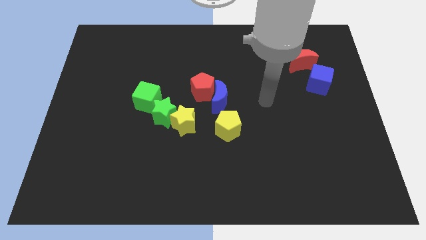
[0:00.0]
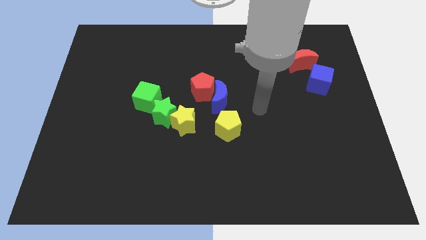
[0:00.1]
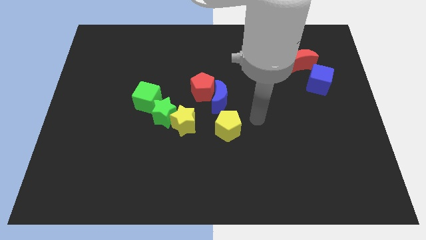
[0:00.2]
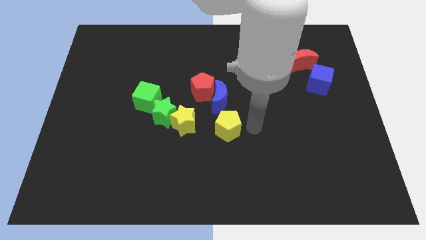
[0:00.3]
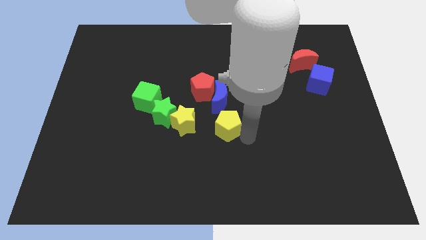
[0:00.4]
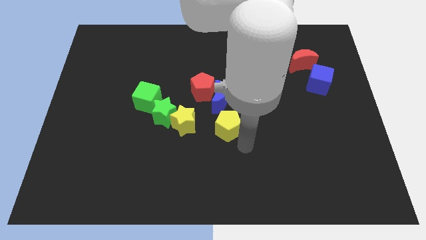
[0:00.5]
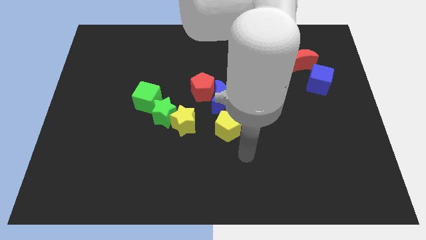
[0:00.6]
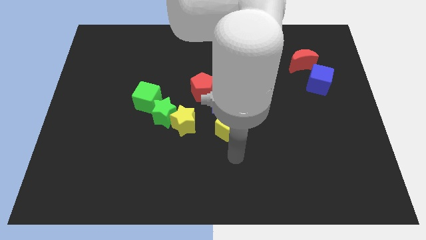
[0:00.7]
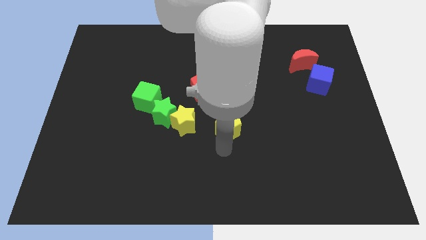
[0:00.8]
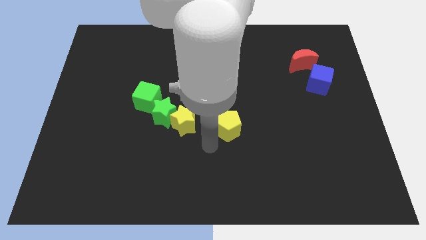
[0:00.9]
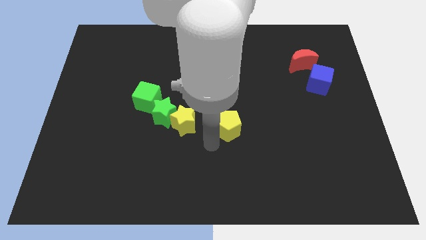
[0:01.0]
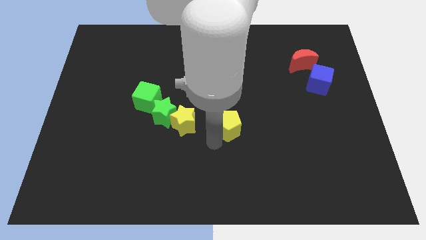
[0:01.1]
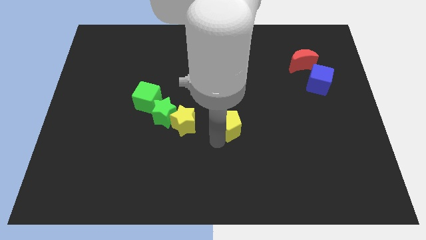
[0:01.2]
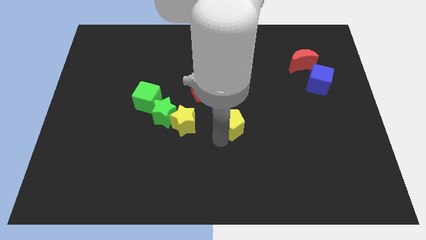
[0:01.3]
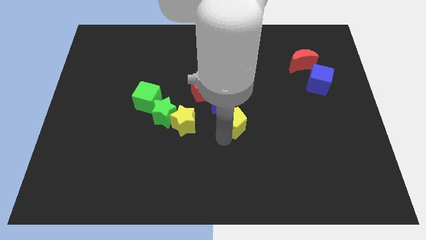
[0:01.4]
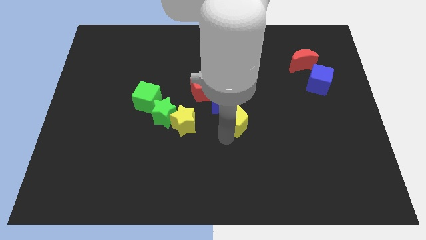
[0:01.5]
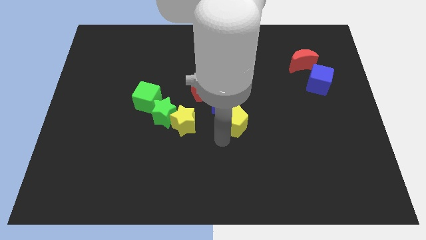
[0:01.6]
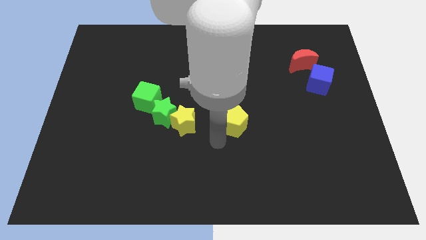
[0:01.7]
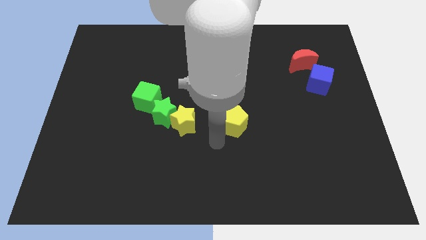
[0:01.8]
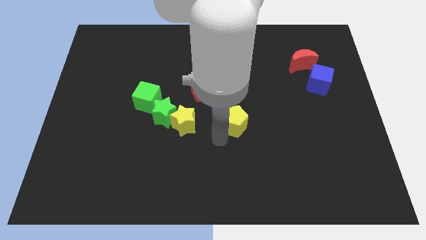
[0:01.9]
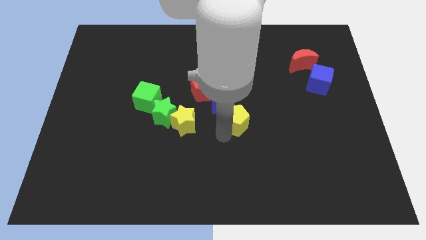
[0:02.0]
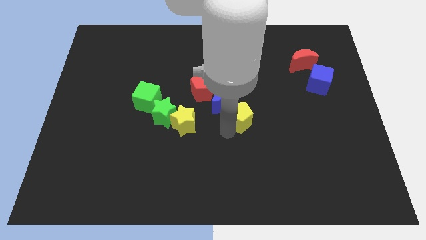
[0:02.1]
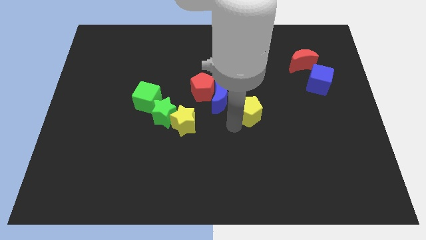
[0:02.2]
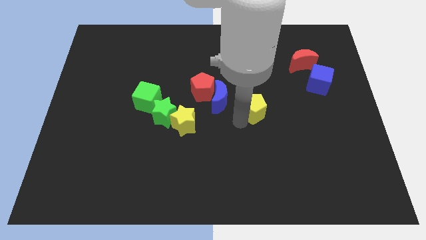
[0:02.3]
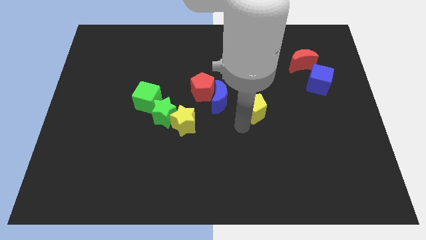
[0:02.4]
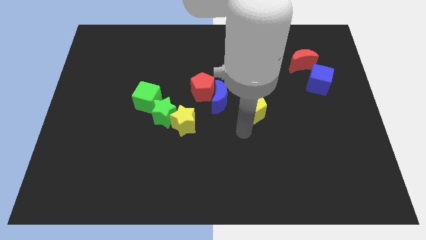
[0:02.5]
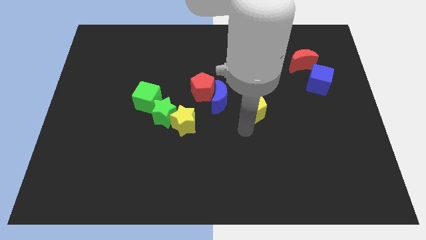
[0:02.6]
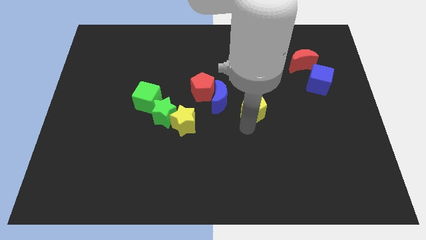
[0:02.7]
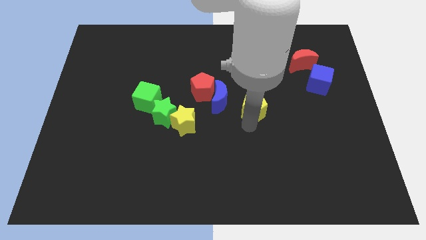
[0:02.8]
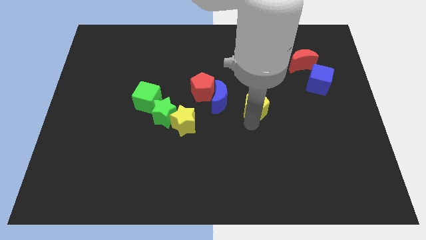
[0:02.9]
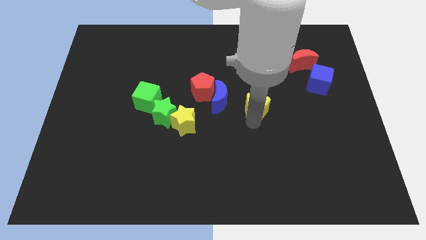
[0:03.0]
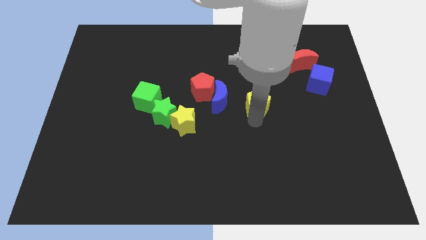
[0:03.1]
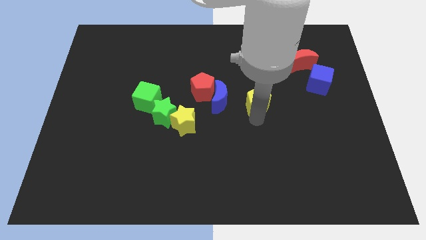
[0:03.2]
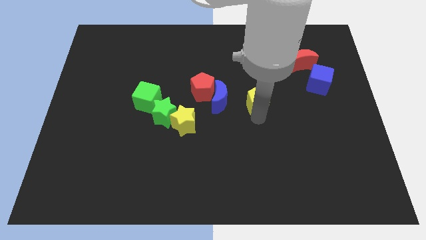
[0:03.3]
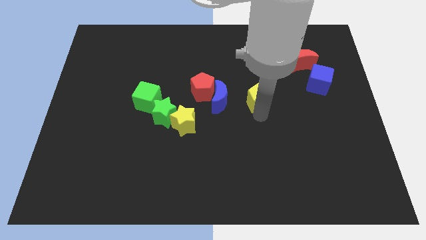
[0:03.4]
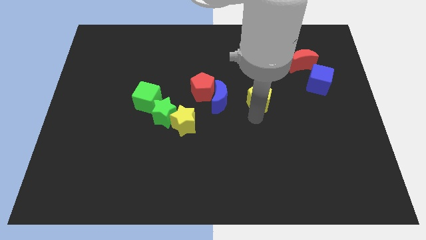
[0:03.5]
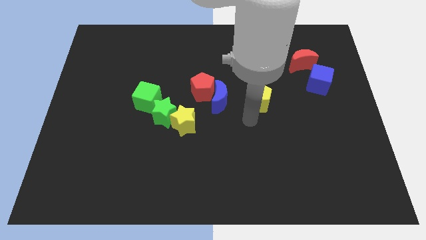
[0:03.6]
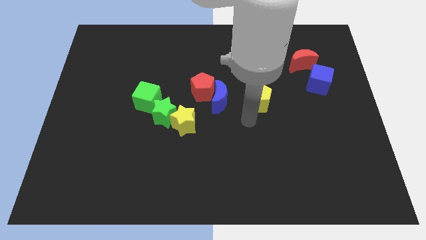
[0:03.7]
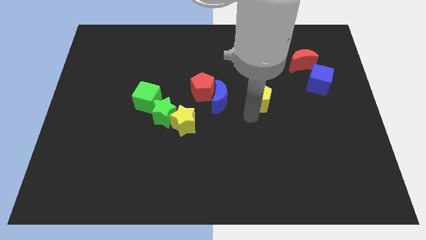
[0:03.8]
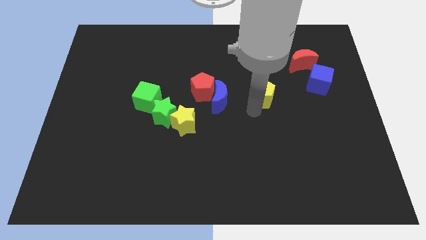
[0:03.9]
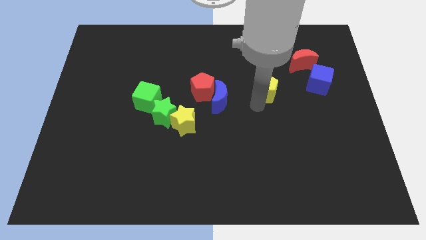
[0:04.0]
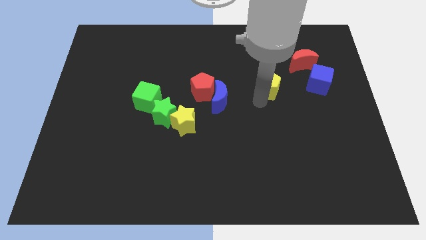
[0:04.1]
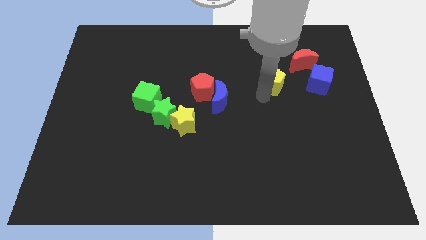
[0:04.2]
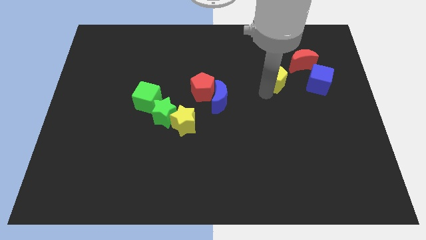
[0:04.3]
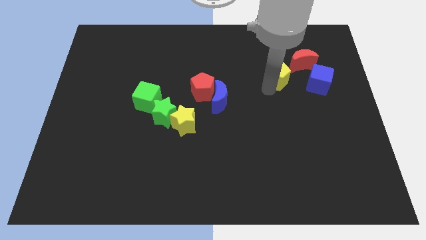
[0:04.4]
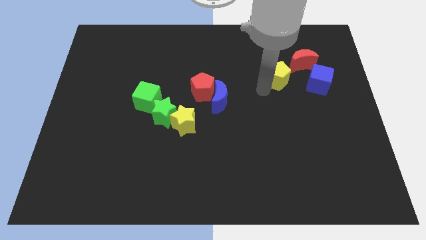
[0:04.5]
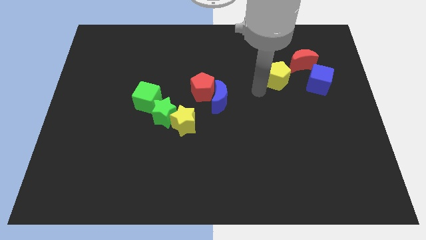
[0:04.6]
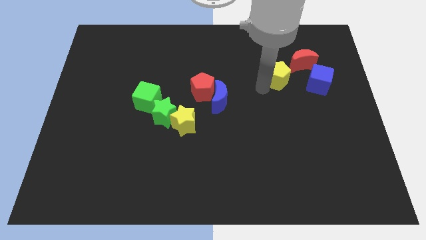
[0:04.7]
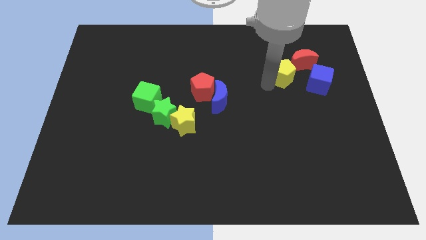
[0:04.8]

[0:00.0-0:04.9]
push the yellow pentagon to the top left of the blue cube

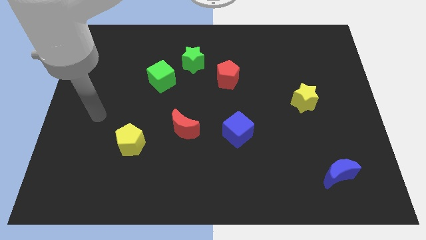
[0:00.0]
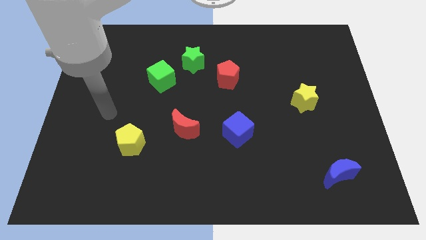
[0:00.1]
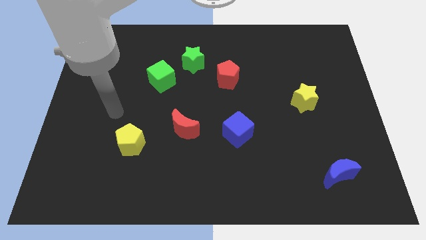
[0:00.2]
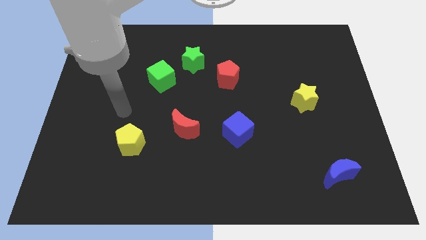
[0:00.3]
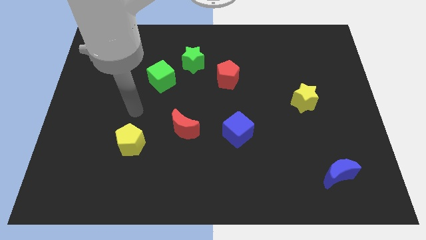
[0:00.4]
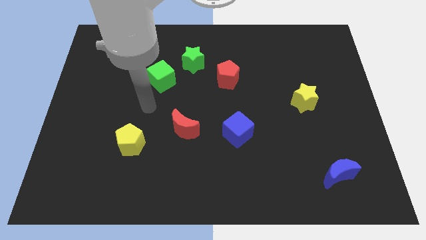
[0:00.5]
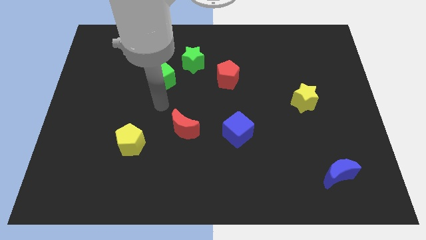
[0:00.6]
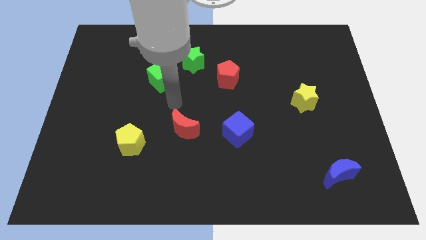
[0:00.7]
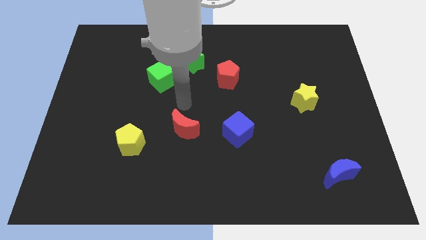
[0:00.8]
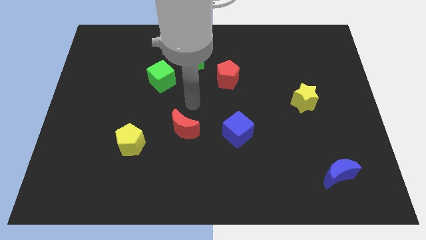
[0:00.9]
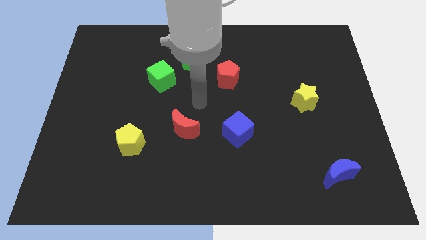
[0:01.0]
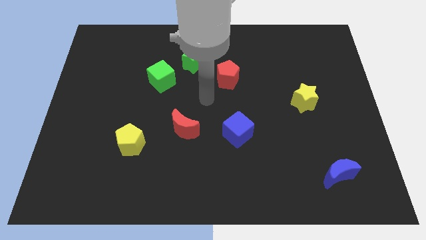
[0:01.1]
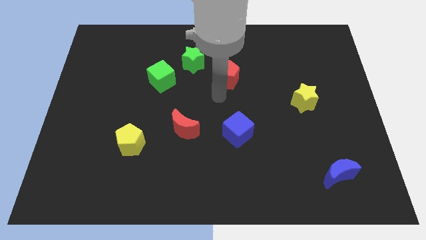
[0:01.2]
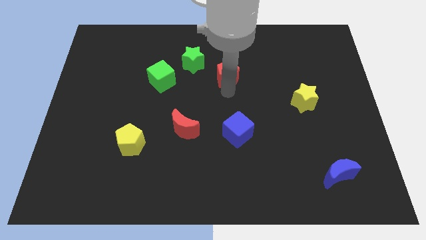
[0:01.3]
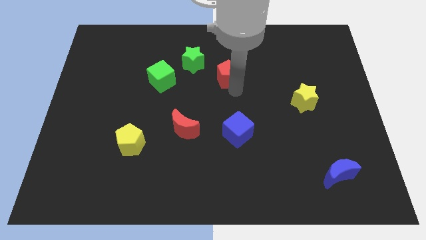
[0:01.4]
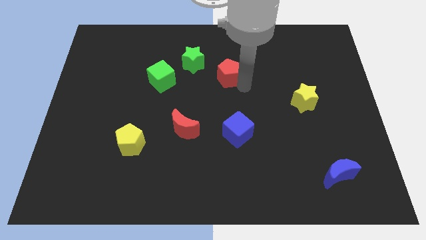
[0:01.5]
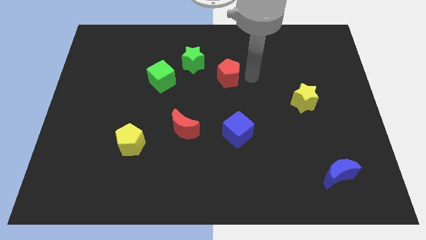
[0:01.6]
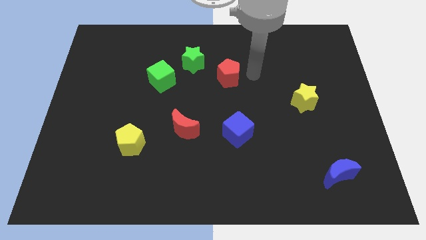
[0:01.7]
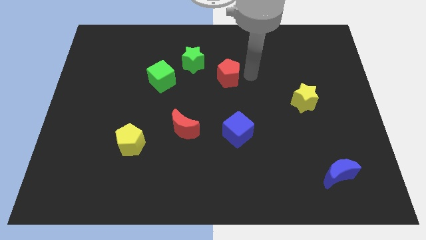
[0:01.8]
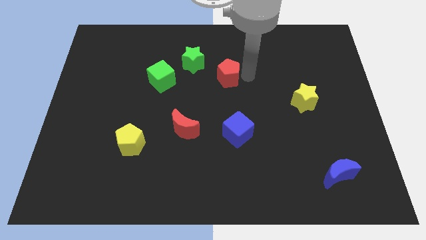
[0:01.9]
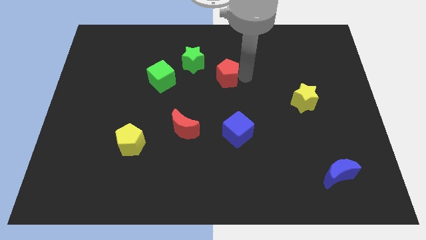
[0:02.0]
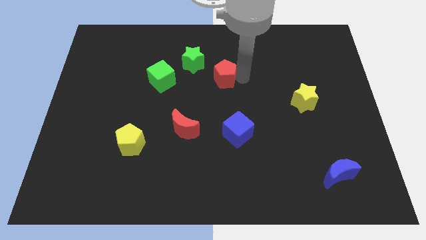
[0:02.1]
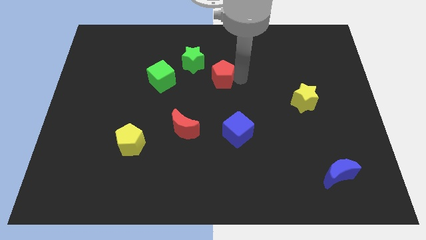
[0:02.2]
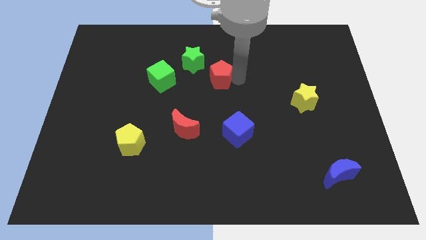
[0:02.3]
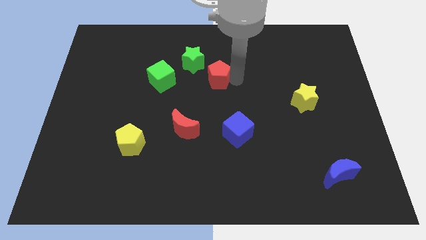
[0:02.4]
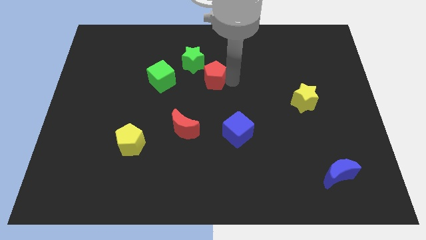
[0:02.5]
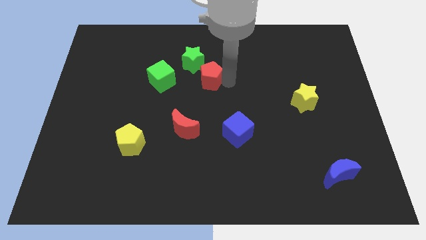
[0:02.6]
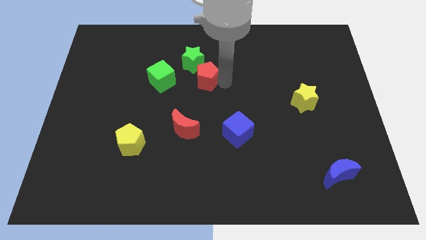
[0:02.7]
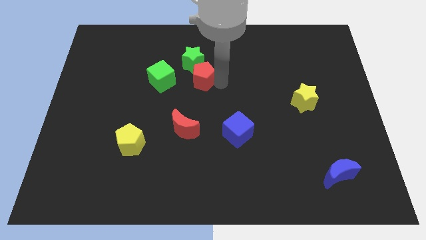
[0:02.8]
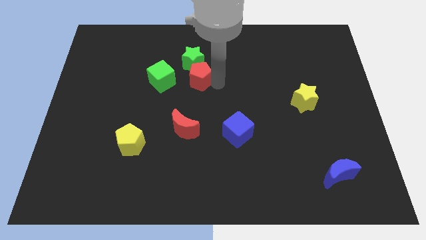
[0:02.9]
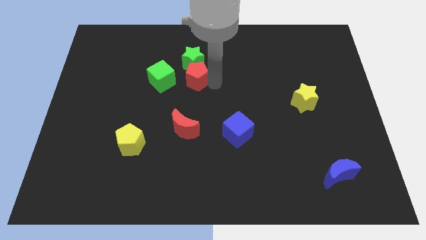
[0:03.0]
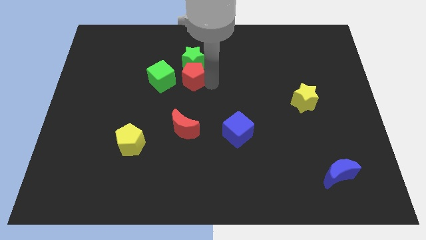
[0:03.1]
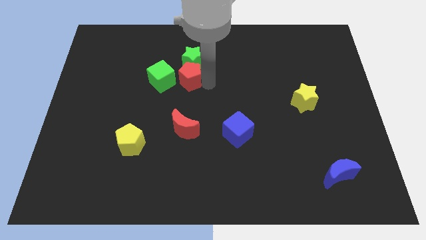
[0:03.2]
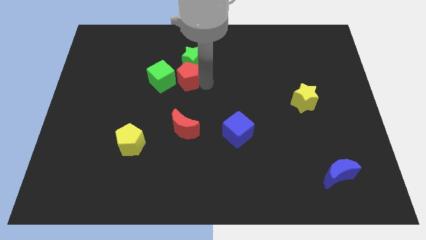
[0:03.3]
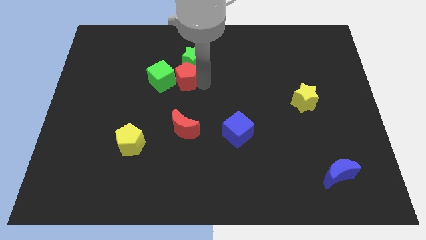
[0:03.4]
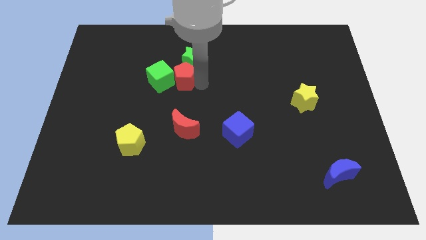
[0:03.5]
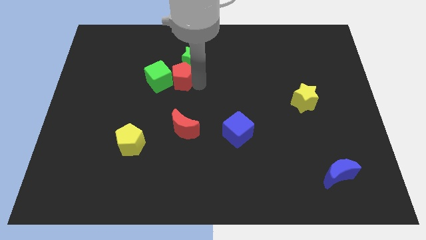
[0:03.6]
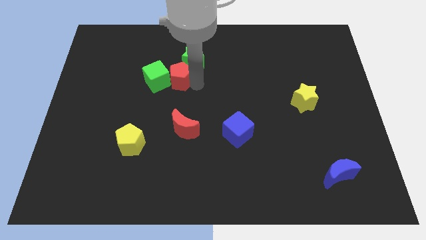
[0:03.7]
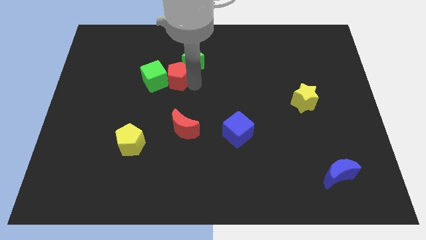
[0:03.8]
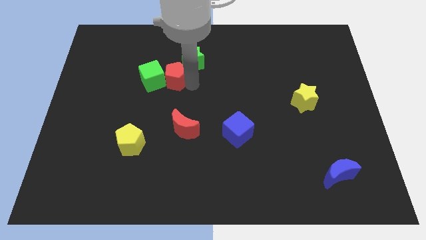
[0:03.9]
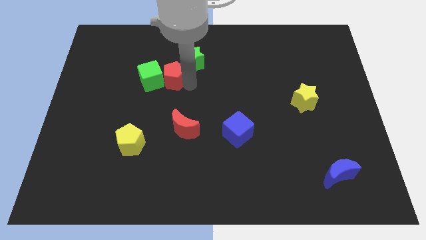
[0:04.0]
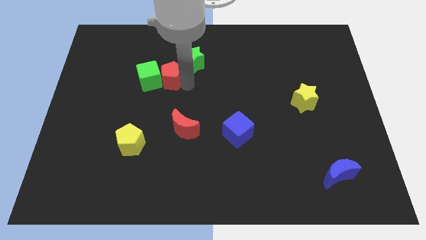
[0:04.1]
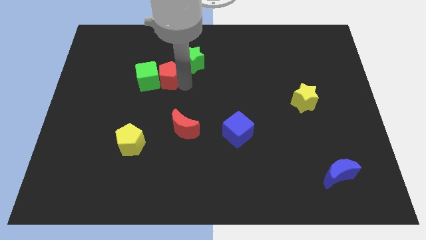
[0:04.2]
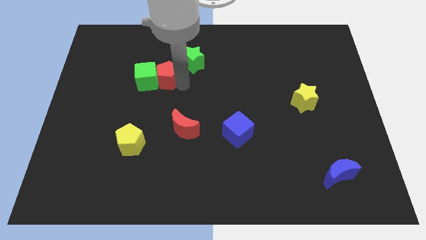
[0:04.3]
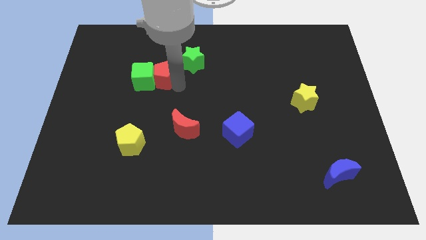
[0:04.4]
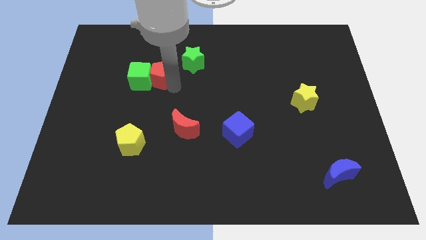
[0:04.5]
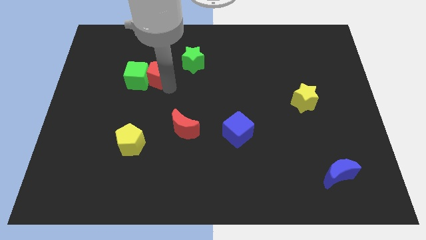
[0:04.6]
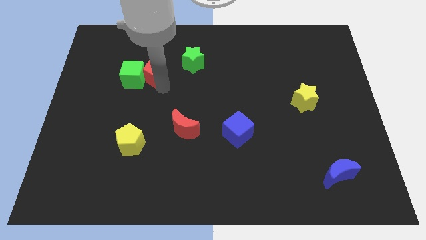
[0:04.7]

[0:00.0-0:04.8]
slide the red pentagon to the left of the green star
